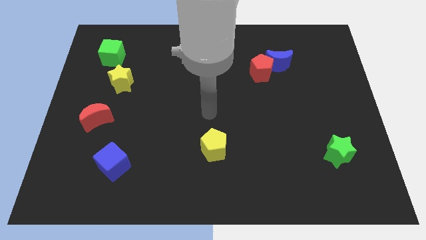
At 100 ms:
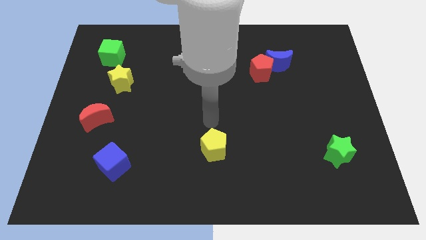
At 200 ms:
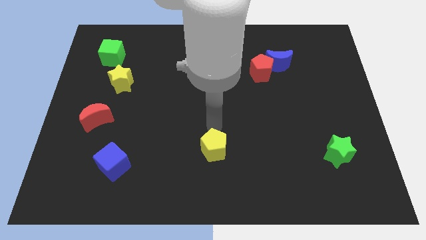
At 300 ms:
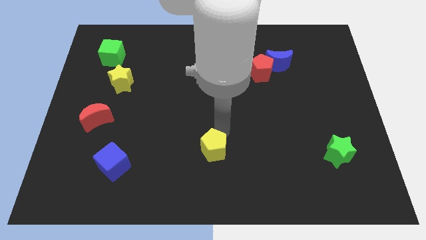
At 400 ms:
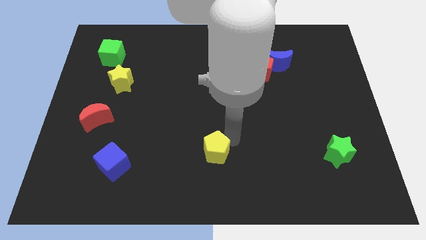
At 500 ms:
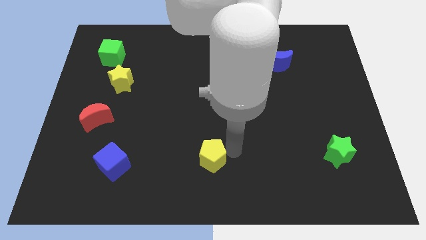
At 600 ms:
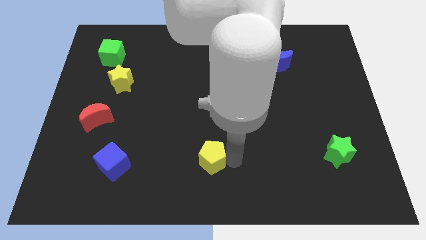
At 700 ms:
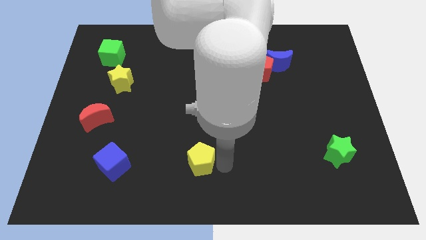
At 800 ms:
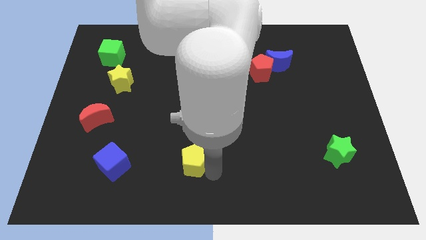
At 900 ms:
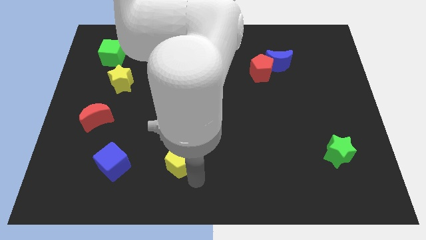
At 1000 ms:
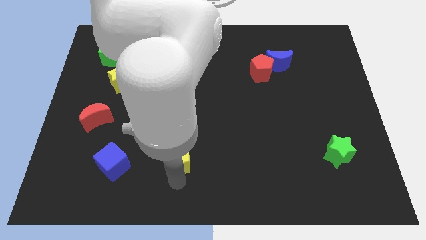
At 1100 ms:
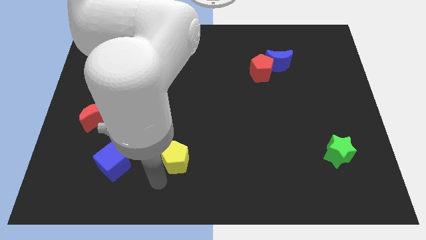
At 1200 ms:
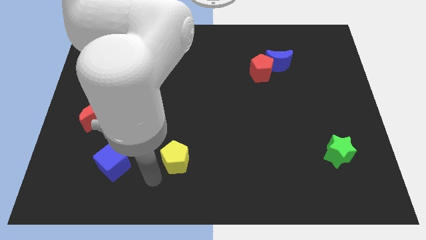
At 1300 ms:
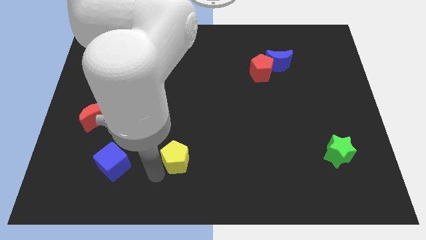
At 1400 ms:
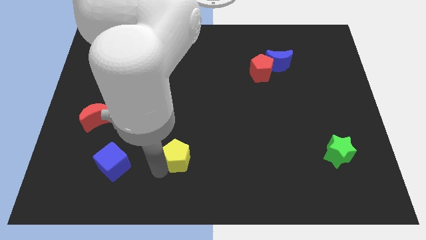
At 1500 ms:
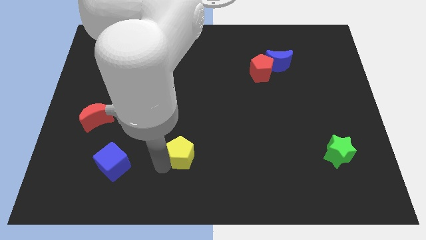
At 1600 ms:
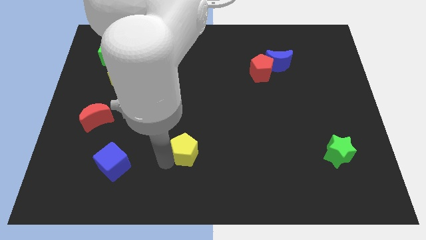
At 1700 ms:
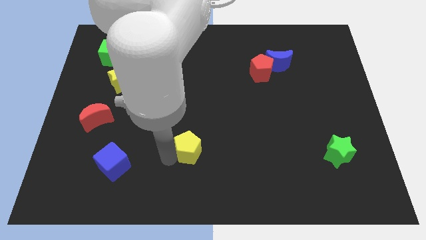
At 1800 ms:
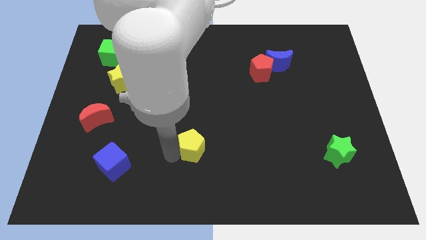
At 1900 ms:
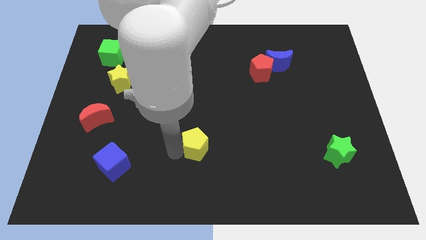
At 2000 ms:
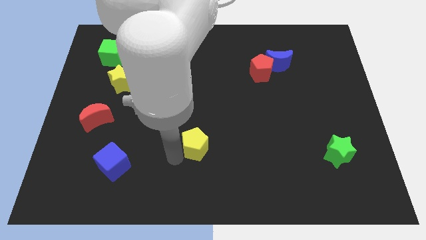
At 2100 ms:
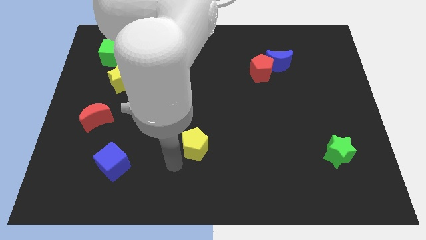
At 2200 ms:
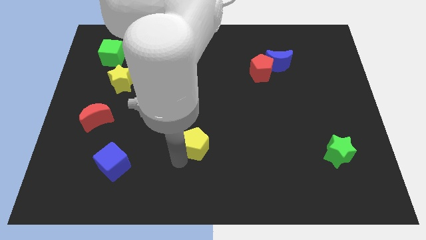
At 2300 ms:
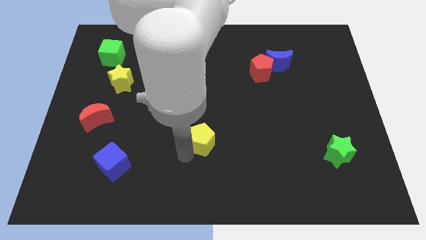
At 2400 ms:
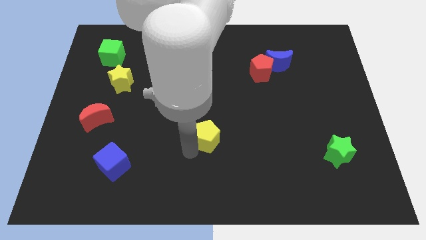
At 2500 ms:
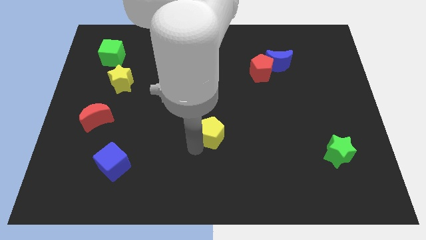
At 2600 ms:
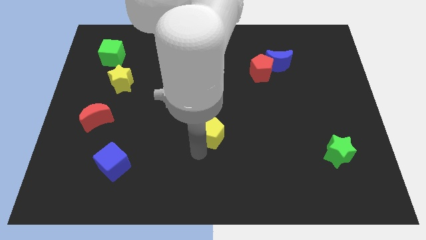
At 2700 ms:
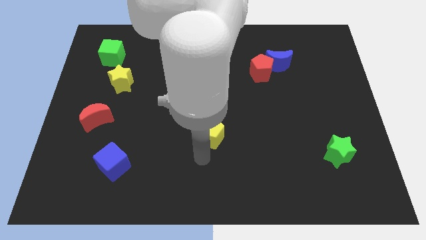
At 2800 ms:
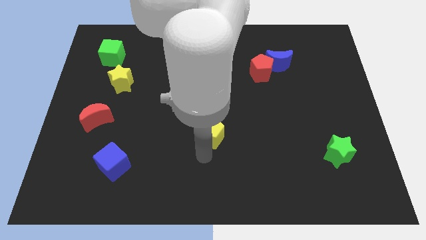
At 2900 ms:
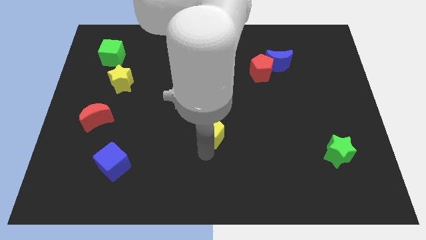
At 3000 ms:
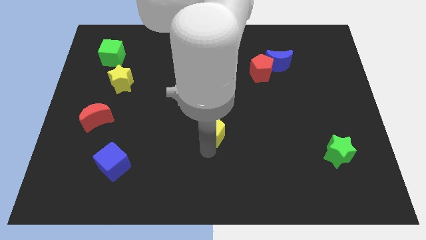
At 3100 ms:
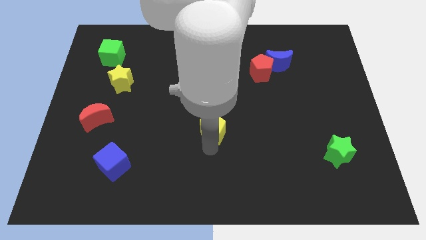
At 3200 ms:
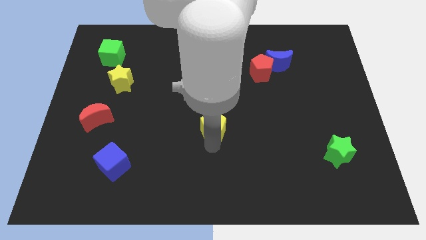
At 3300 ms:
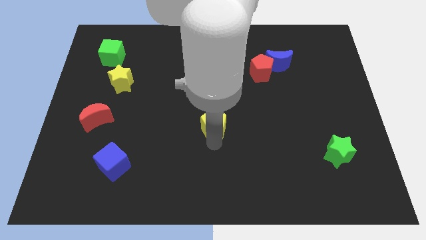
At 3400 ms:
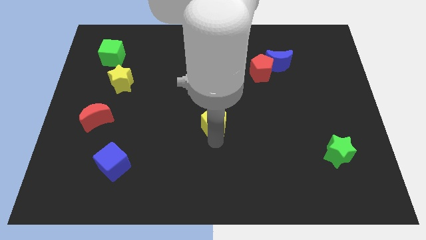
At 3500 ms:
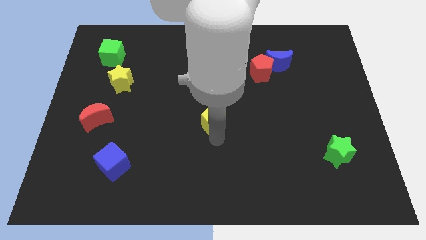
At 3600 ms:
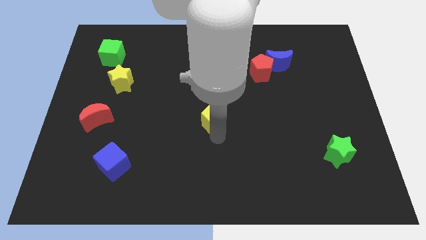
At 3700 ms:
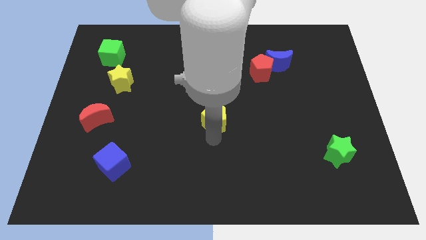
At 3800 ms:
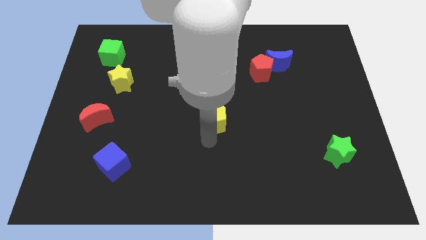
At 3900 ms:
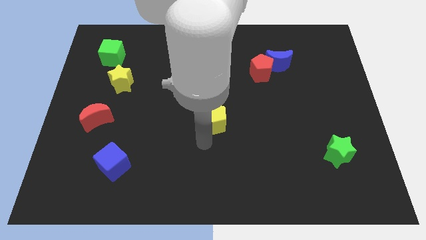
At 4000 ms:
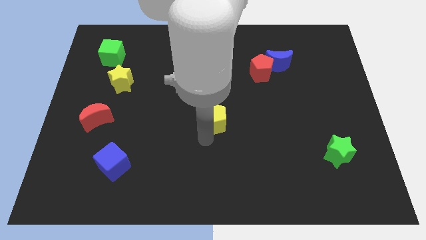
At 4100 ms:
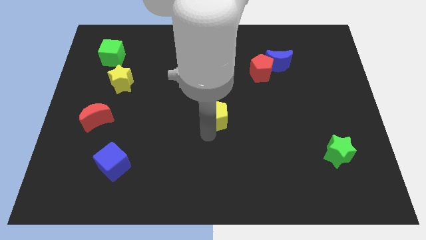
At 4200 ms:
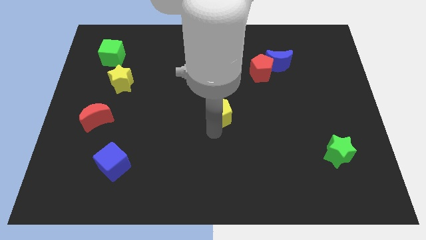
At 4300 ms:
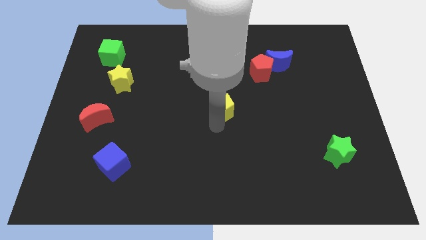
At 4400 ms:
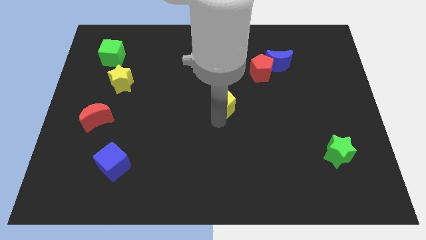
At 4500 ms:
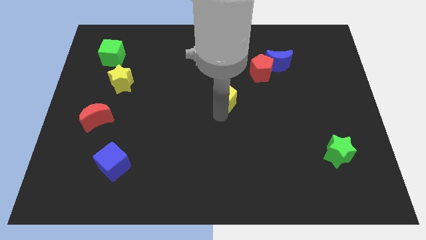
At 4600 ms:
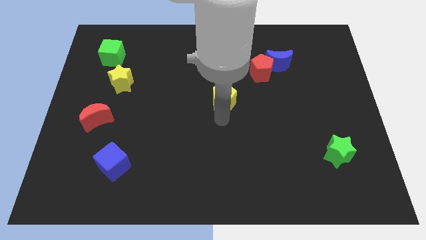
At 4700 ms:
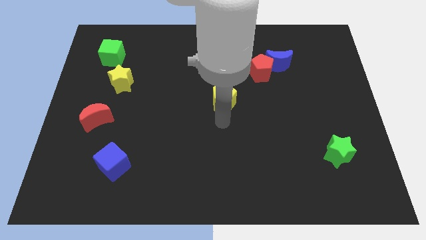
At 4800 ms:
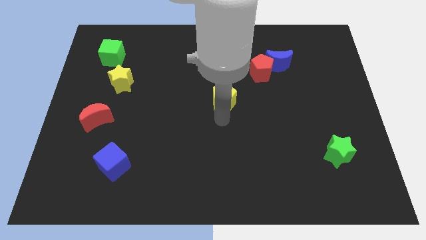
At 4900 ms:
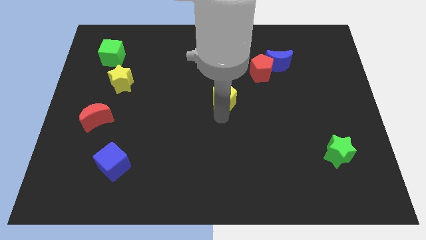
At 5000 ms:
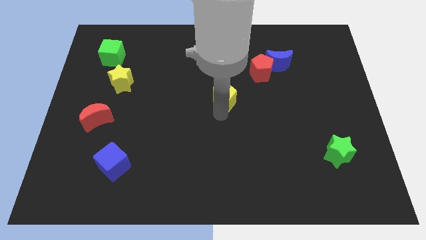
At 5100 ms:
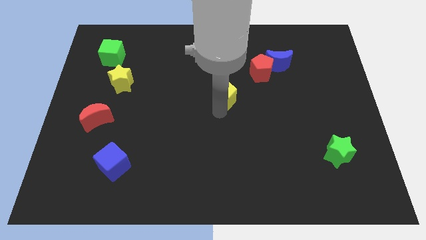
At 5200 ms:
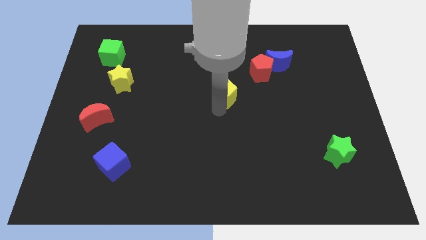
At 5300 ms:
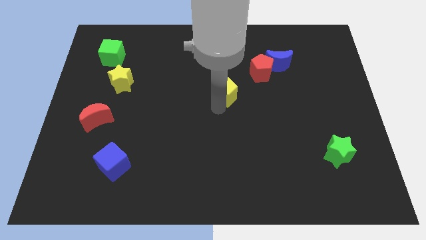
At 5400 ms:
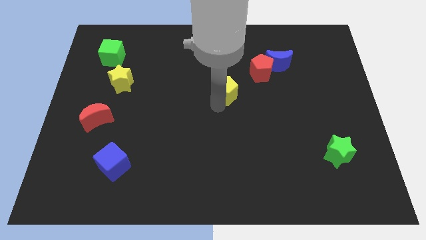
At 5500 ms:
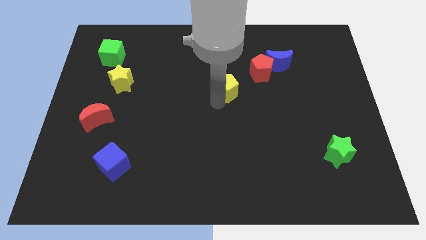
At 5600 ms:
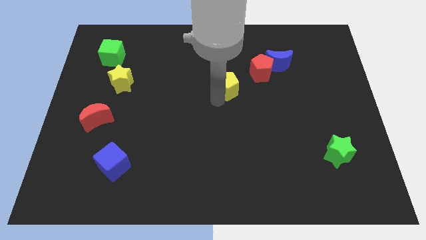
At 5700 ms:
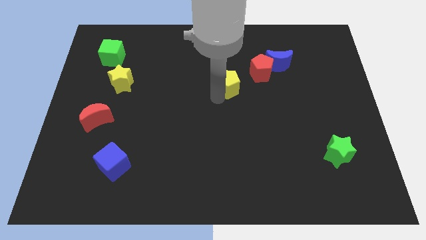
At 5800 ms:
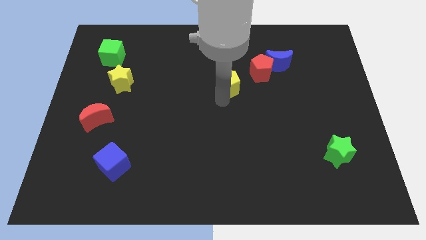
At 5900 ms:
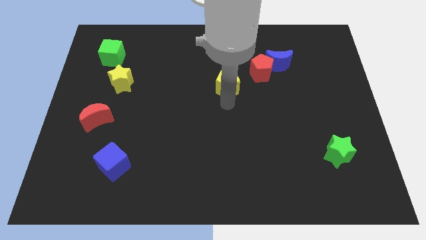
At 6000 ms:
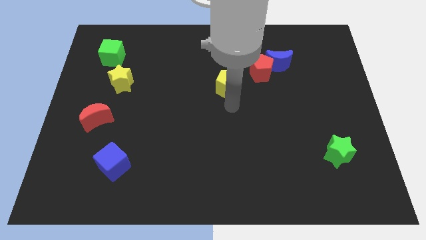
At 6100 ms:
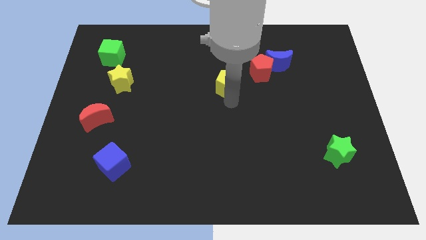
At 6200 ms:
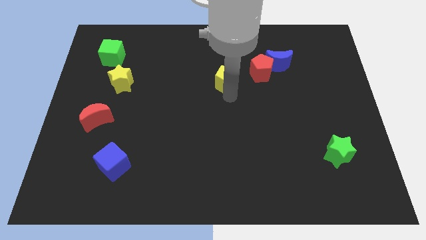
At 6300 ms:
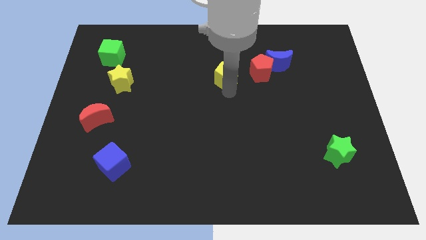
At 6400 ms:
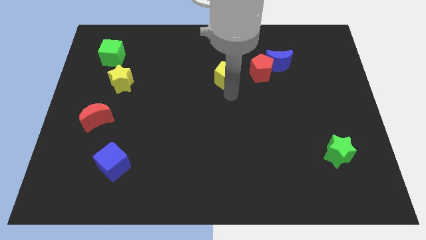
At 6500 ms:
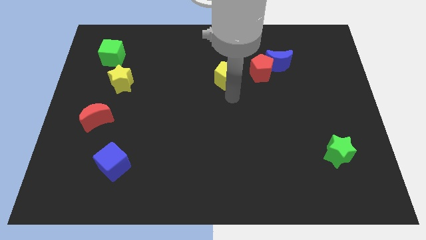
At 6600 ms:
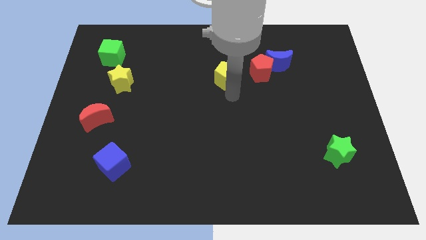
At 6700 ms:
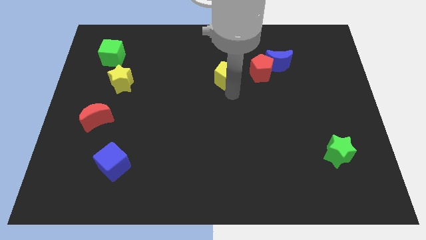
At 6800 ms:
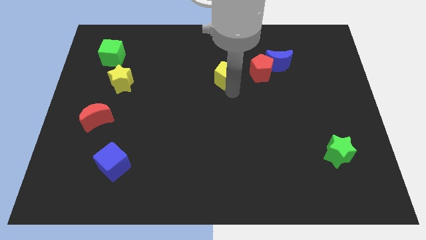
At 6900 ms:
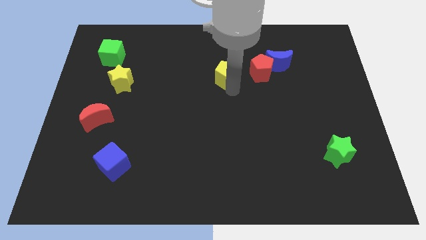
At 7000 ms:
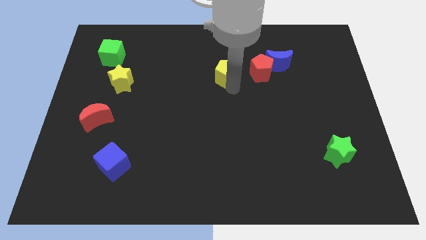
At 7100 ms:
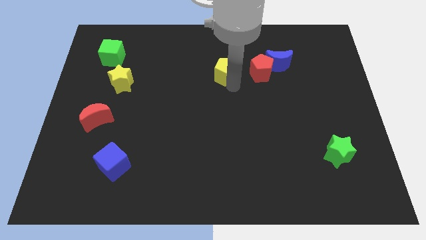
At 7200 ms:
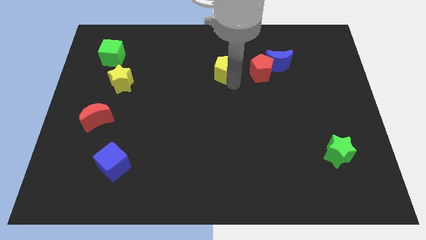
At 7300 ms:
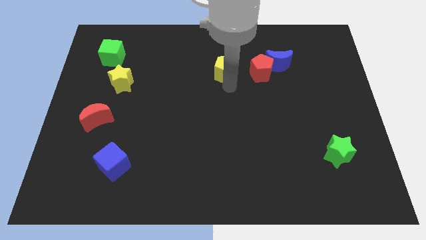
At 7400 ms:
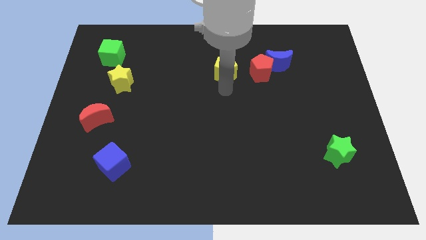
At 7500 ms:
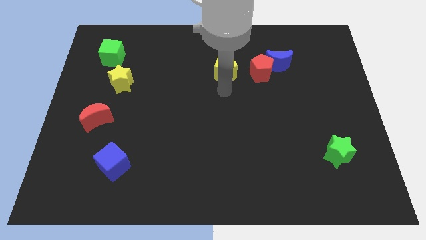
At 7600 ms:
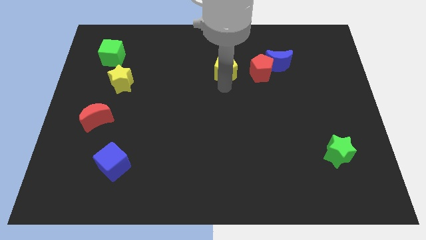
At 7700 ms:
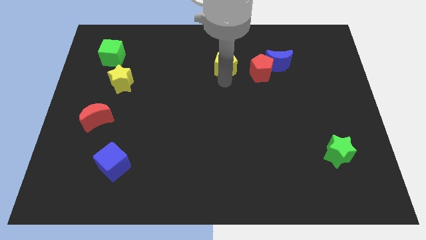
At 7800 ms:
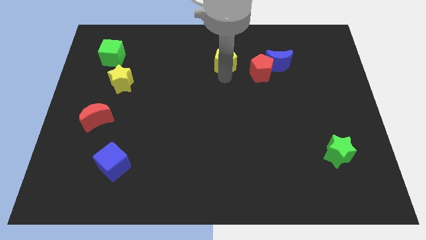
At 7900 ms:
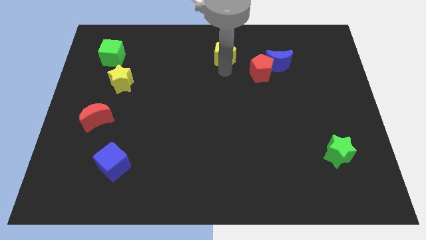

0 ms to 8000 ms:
push the yellow pentagon to the top side
